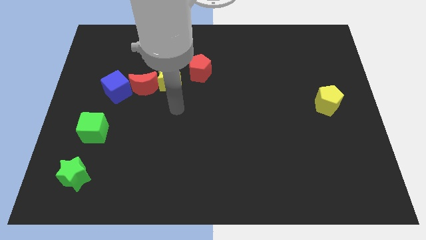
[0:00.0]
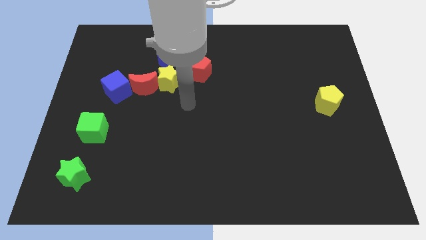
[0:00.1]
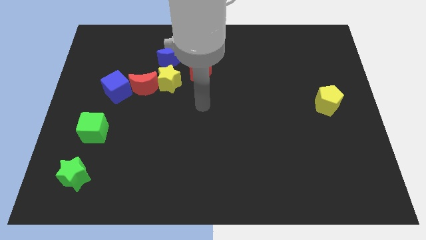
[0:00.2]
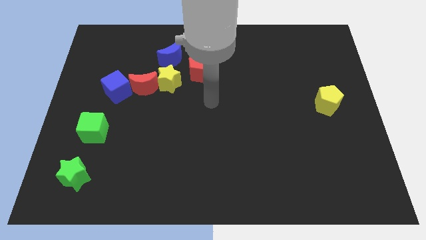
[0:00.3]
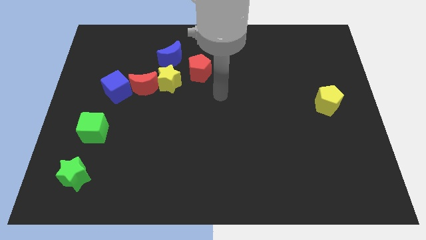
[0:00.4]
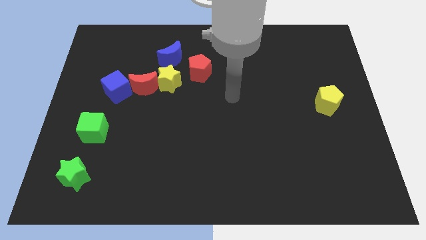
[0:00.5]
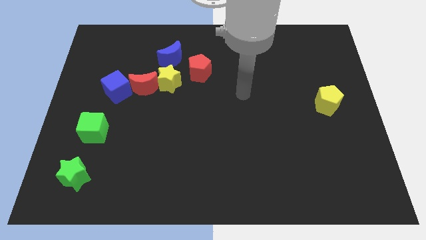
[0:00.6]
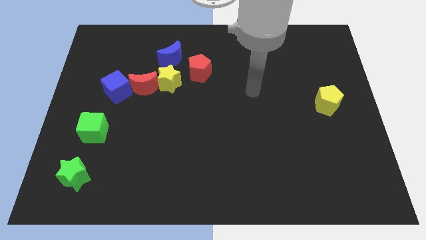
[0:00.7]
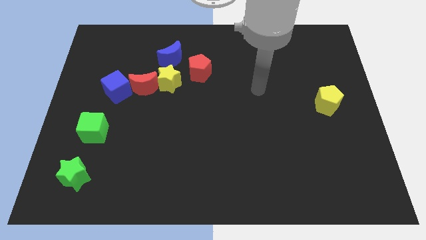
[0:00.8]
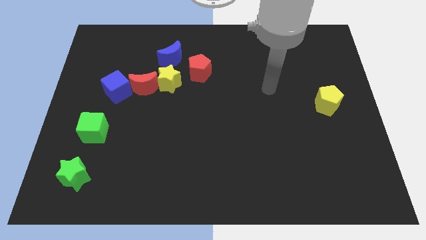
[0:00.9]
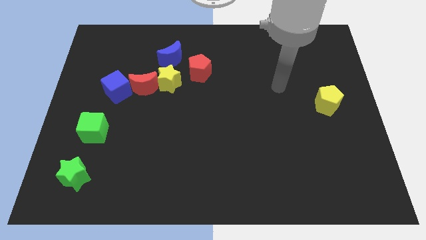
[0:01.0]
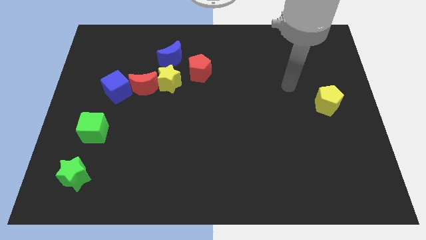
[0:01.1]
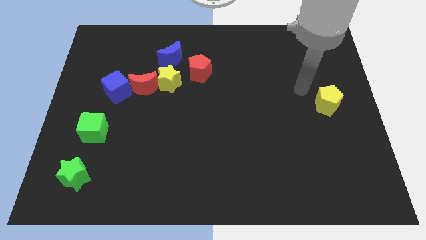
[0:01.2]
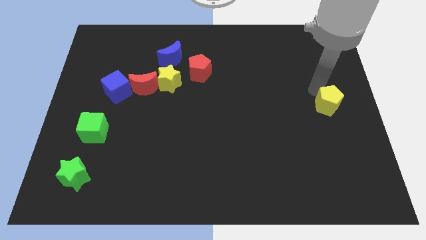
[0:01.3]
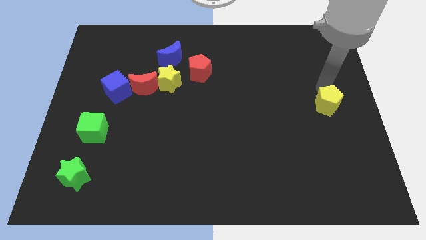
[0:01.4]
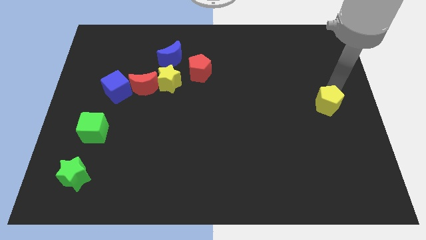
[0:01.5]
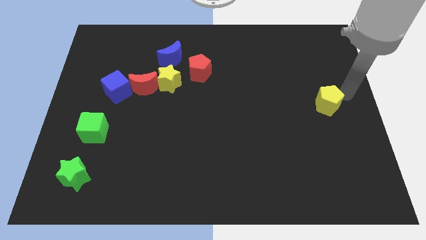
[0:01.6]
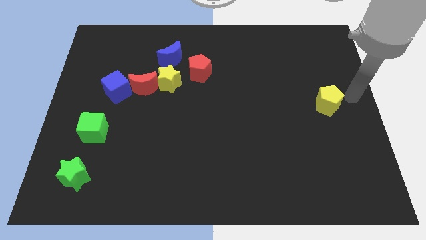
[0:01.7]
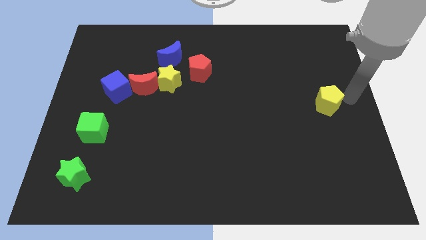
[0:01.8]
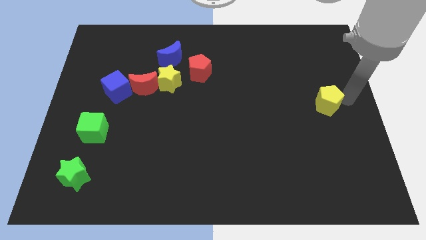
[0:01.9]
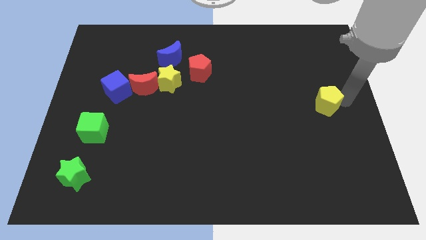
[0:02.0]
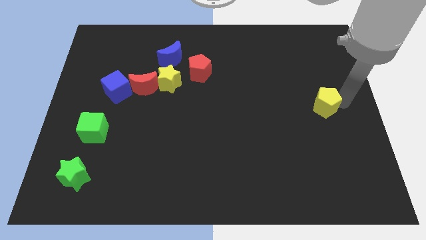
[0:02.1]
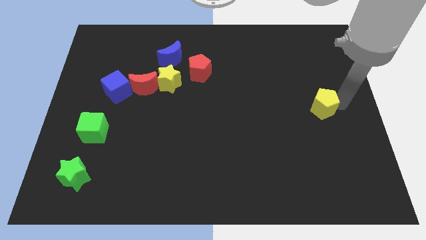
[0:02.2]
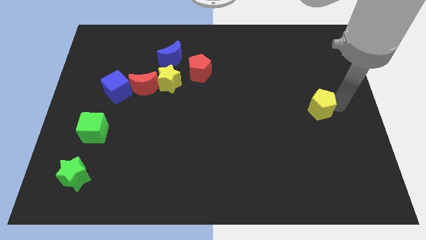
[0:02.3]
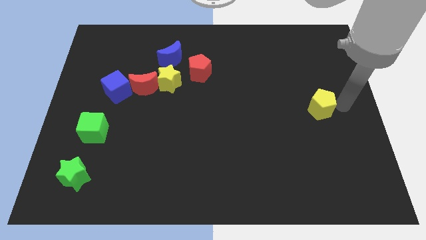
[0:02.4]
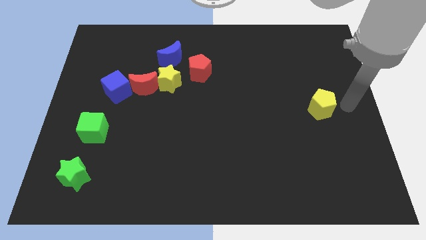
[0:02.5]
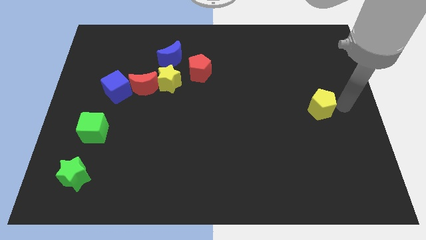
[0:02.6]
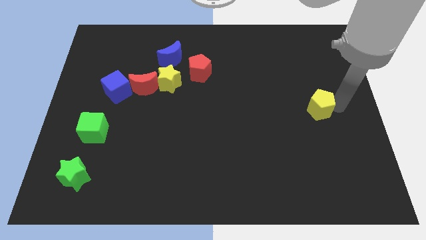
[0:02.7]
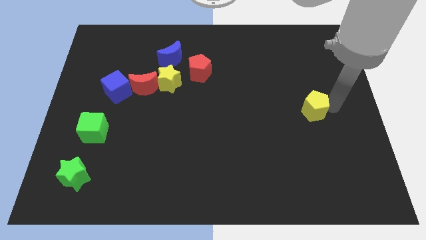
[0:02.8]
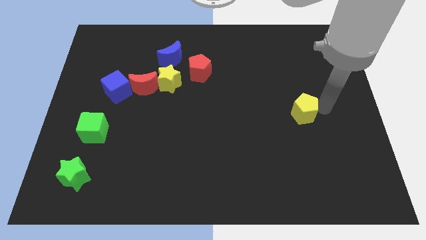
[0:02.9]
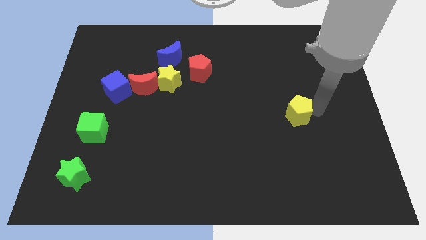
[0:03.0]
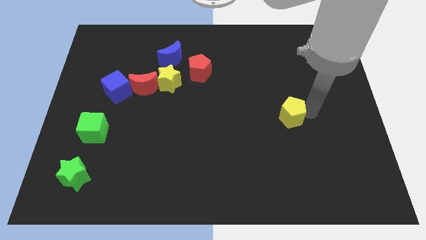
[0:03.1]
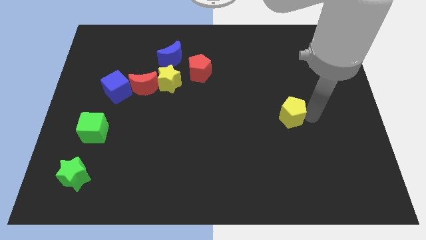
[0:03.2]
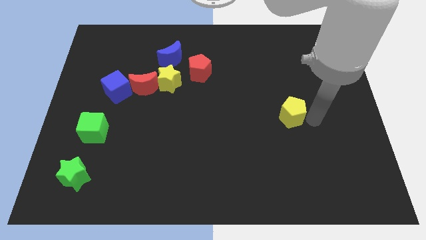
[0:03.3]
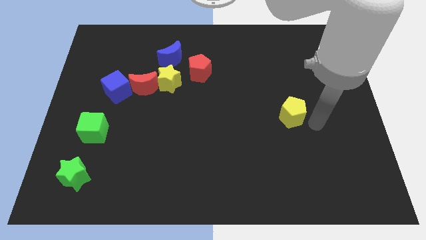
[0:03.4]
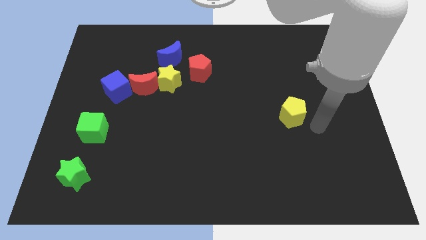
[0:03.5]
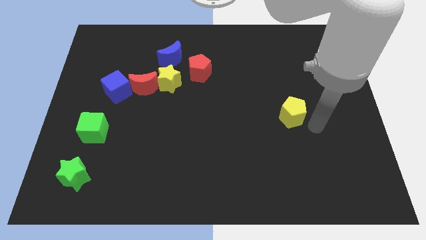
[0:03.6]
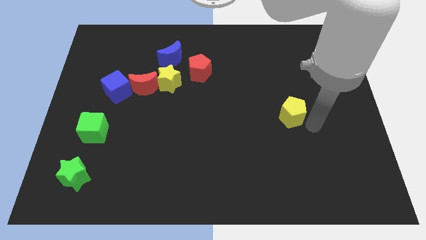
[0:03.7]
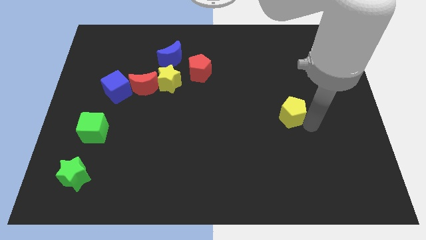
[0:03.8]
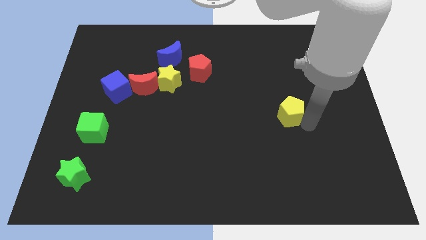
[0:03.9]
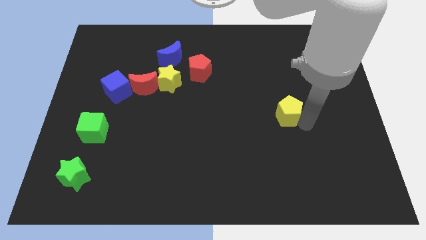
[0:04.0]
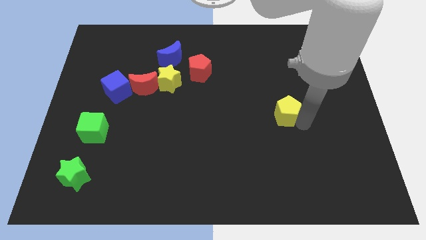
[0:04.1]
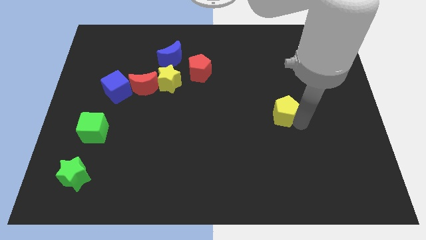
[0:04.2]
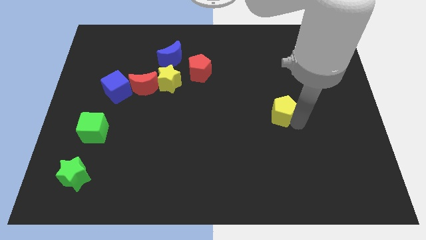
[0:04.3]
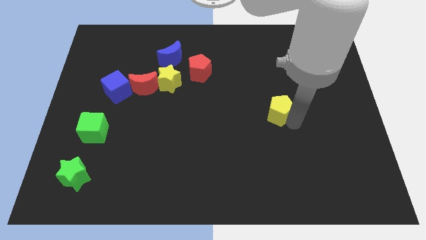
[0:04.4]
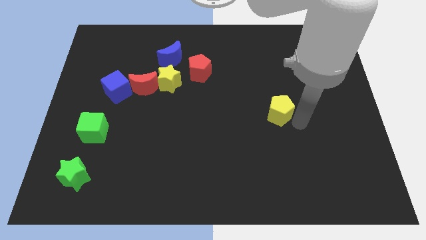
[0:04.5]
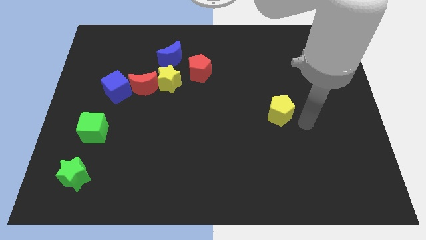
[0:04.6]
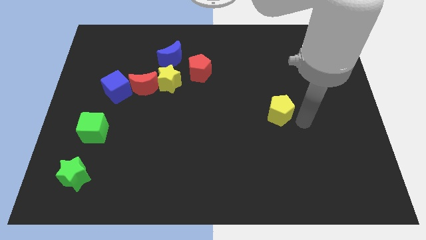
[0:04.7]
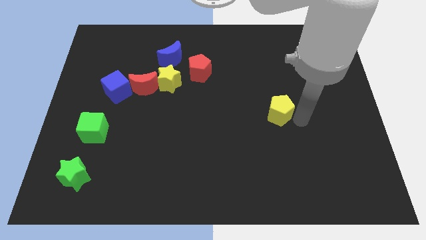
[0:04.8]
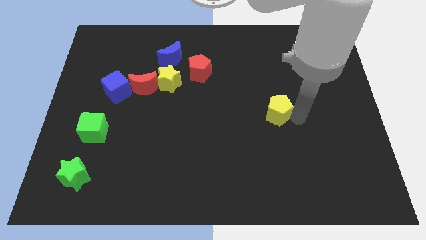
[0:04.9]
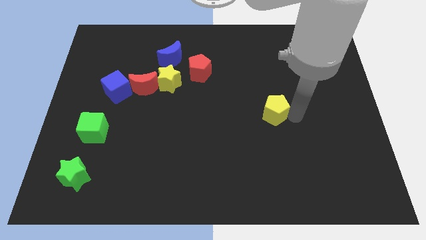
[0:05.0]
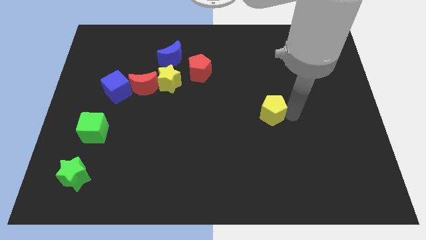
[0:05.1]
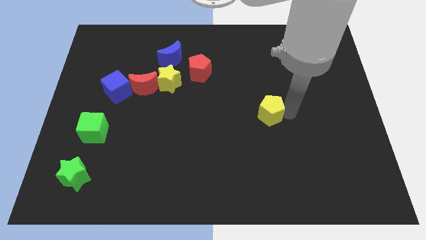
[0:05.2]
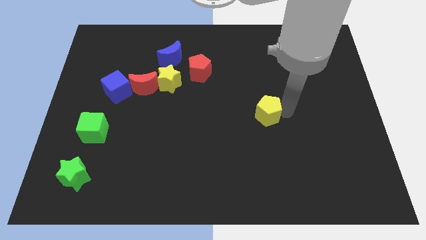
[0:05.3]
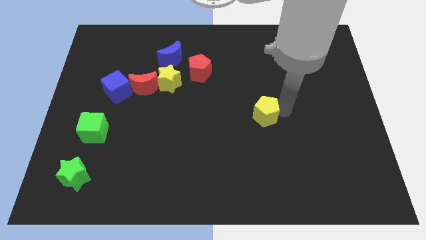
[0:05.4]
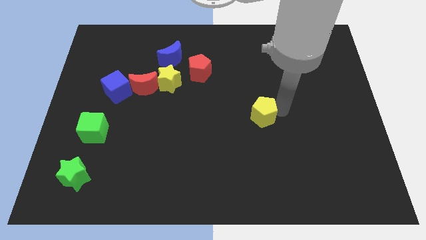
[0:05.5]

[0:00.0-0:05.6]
put the yellow pentagon to the center of the board

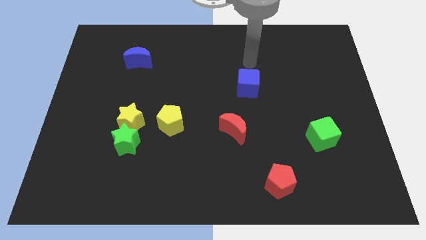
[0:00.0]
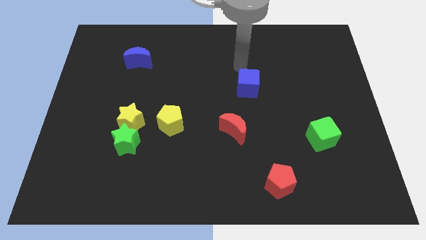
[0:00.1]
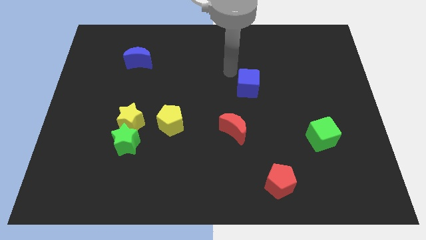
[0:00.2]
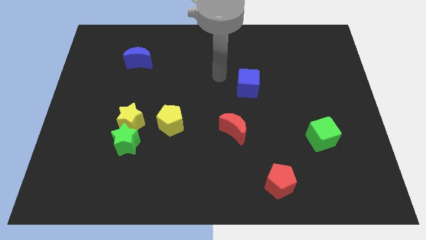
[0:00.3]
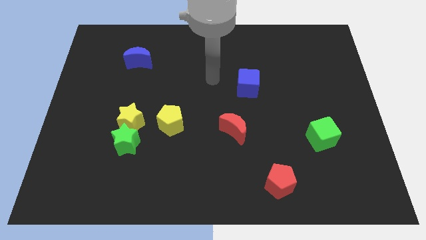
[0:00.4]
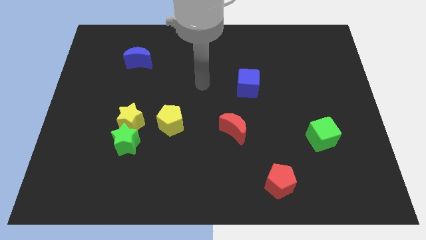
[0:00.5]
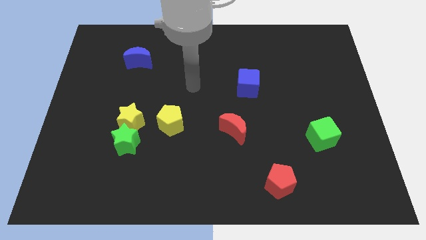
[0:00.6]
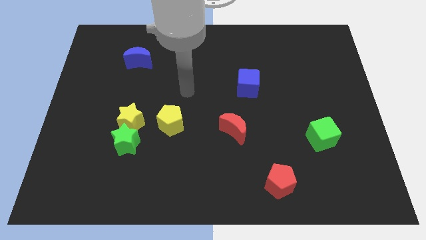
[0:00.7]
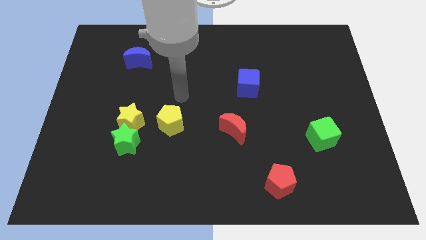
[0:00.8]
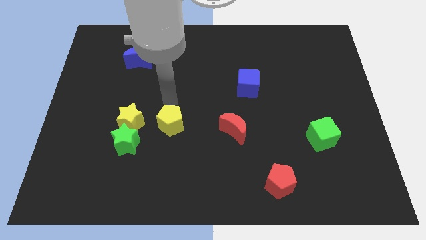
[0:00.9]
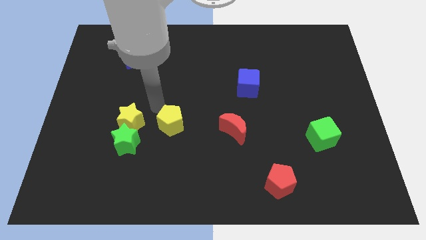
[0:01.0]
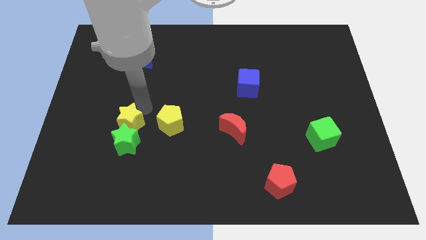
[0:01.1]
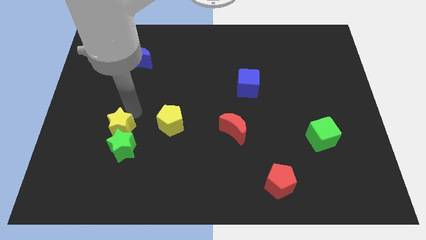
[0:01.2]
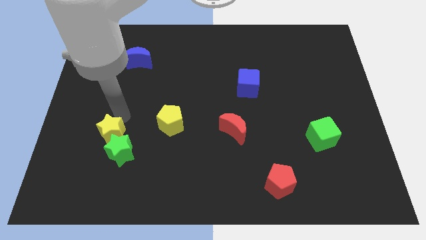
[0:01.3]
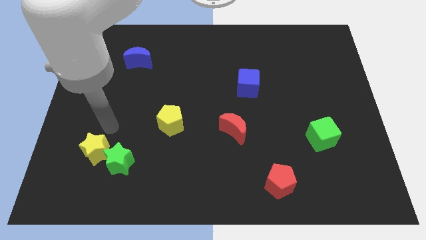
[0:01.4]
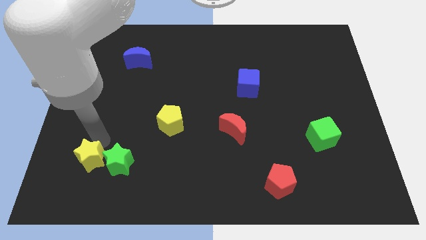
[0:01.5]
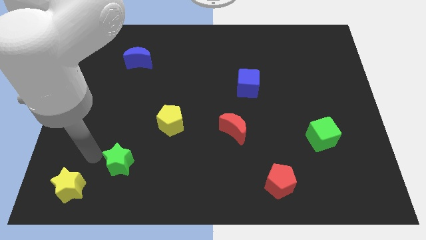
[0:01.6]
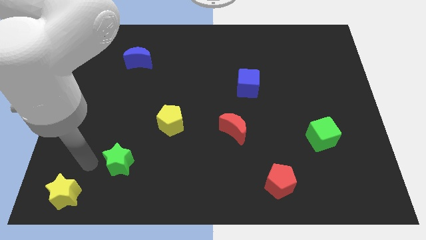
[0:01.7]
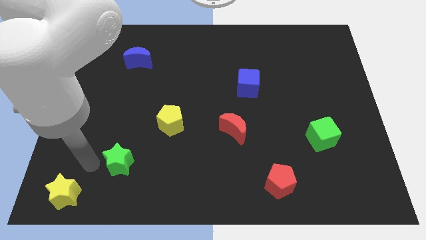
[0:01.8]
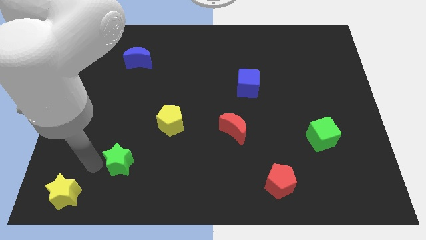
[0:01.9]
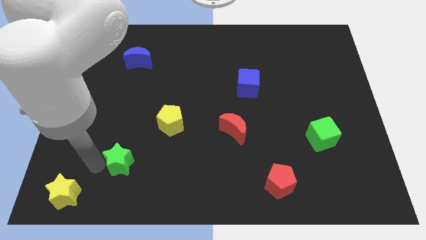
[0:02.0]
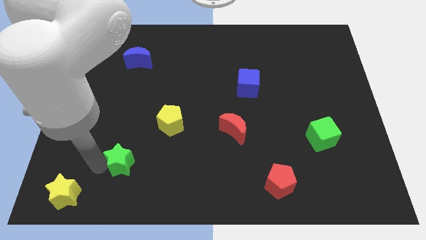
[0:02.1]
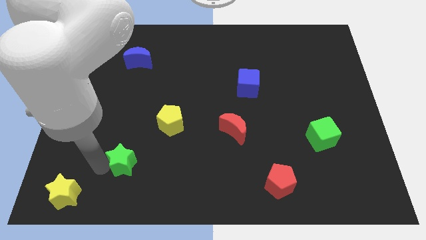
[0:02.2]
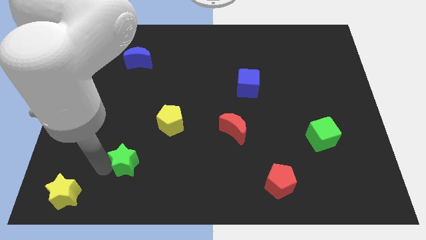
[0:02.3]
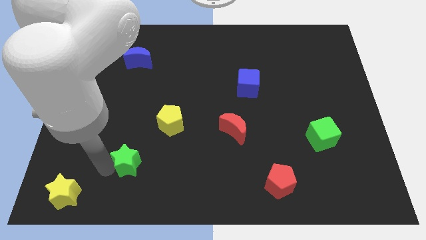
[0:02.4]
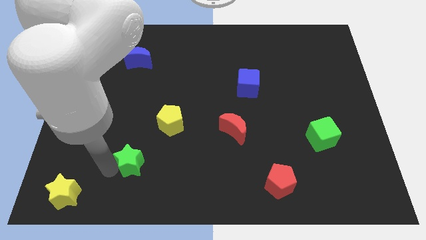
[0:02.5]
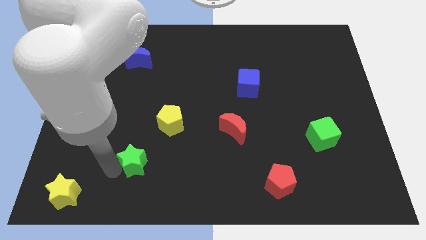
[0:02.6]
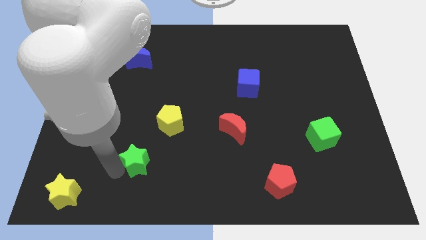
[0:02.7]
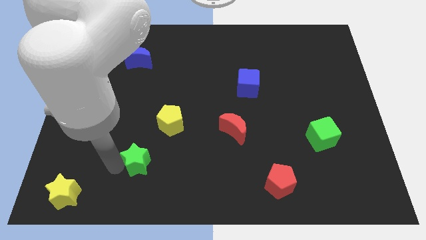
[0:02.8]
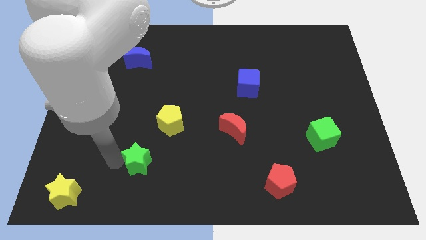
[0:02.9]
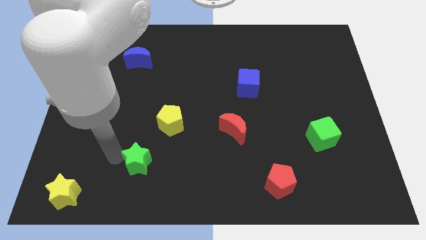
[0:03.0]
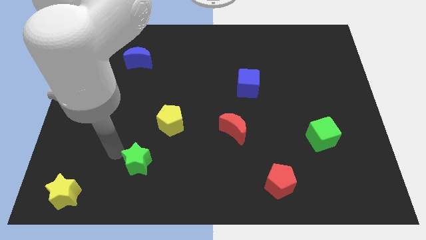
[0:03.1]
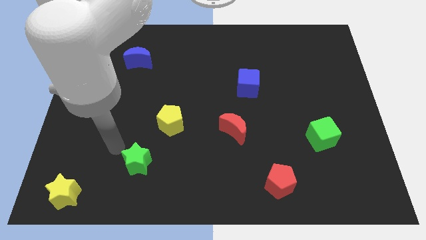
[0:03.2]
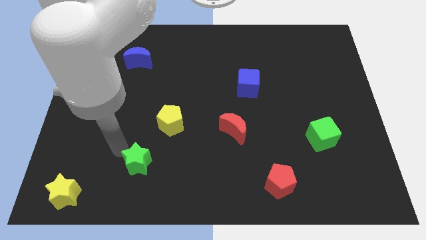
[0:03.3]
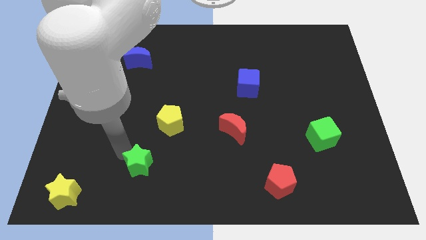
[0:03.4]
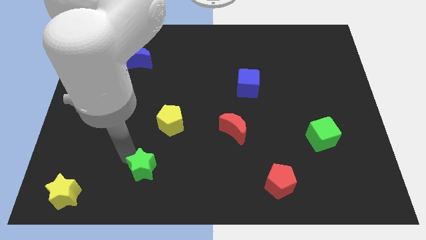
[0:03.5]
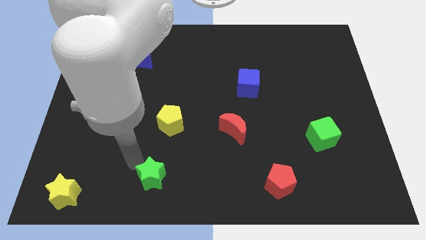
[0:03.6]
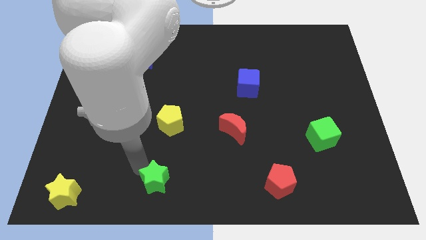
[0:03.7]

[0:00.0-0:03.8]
move the green star to the bottom
